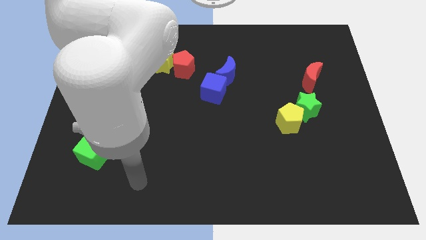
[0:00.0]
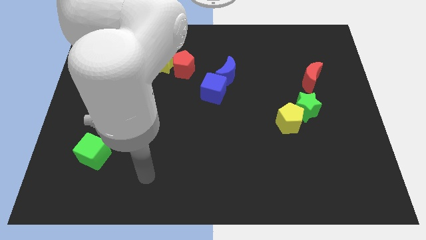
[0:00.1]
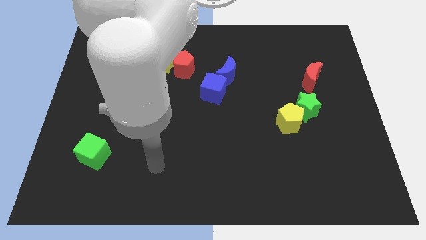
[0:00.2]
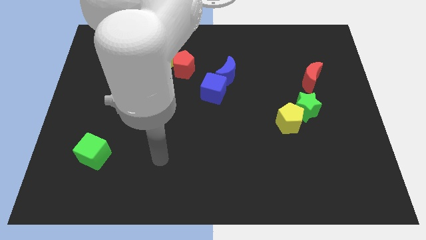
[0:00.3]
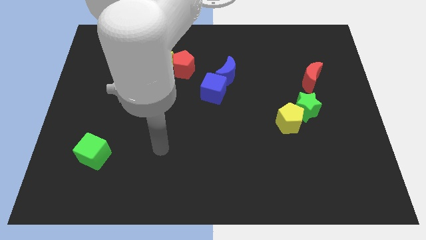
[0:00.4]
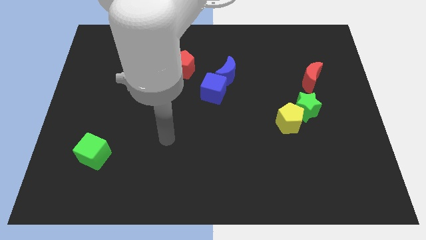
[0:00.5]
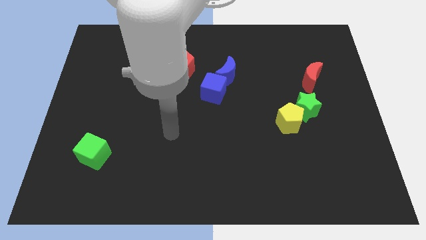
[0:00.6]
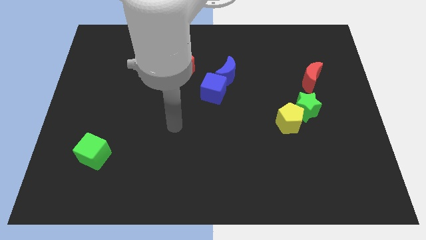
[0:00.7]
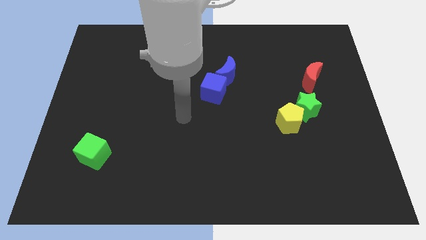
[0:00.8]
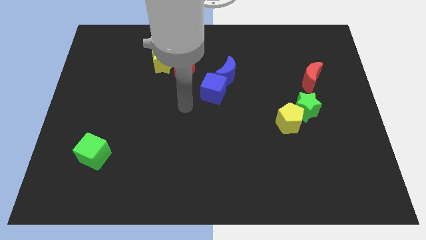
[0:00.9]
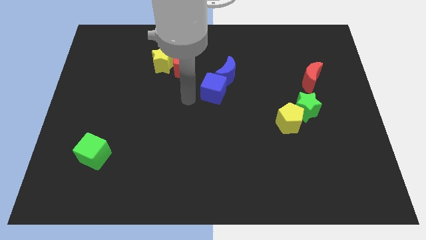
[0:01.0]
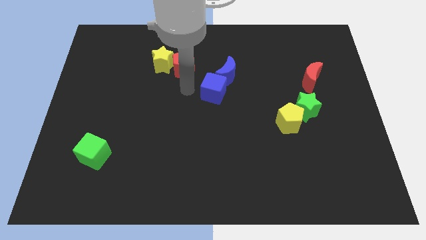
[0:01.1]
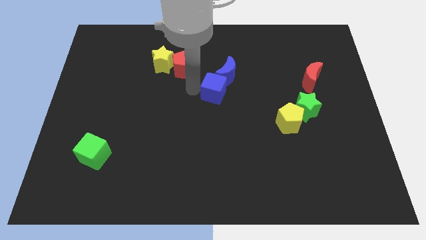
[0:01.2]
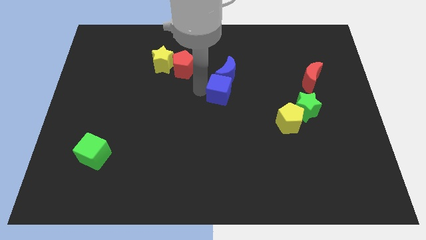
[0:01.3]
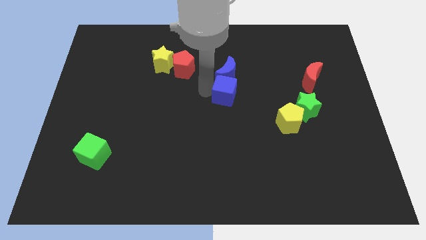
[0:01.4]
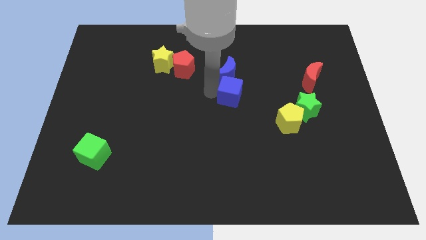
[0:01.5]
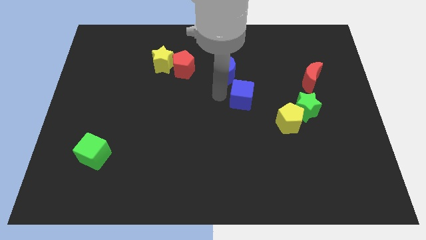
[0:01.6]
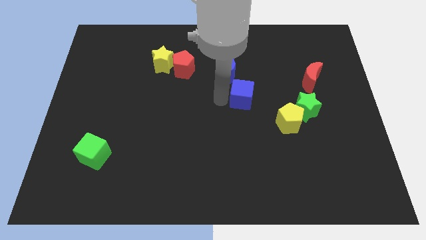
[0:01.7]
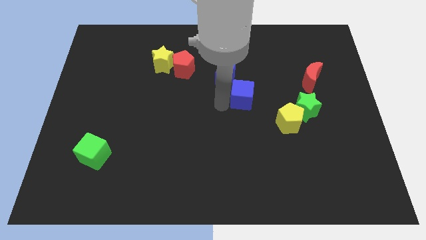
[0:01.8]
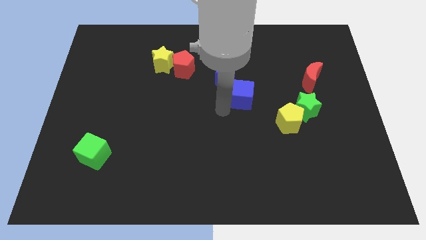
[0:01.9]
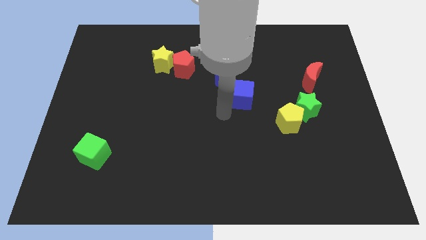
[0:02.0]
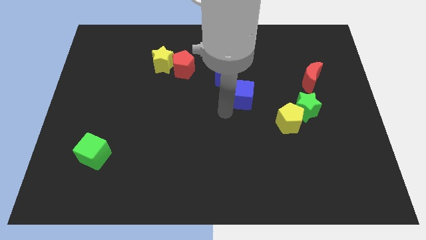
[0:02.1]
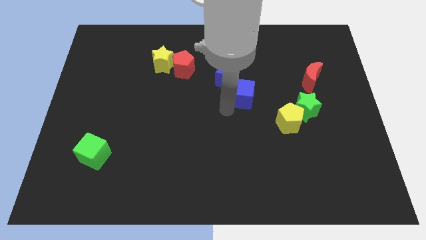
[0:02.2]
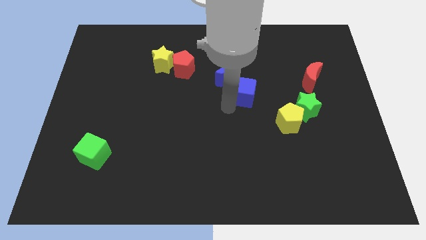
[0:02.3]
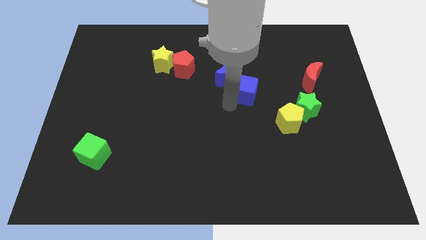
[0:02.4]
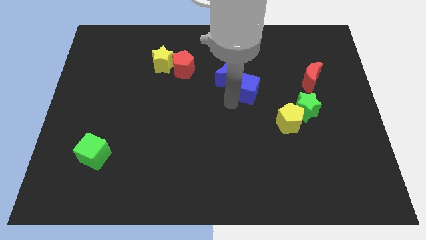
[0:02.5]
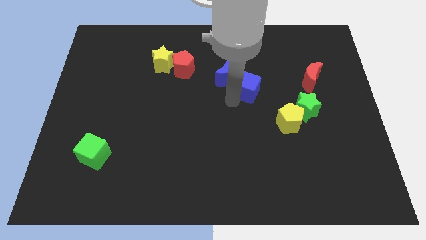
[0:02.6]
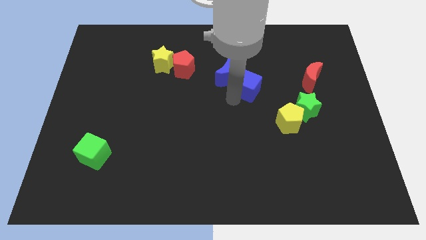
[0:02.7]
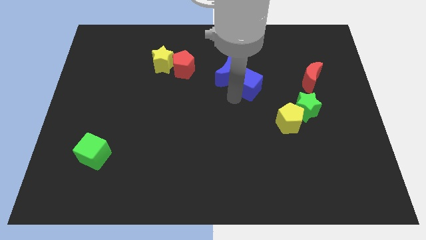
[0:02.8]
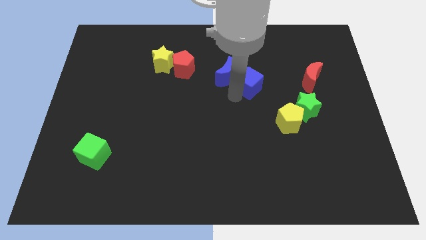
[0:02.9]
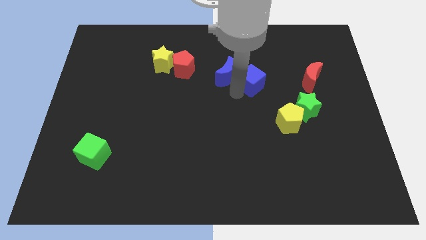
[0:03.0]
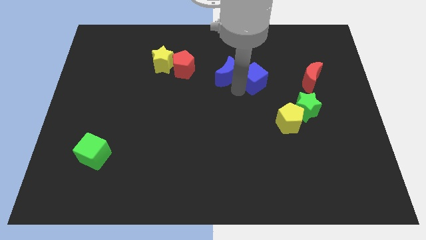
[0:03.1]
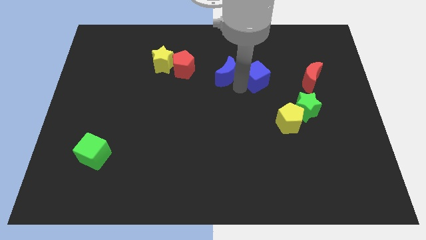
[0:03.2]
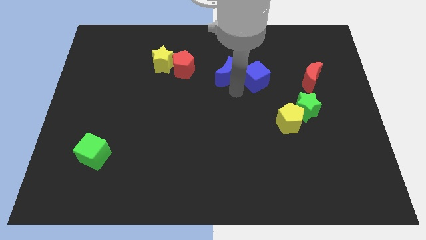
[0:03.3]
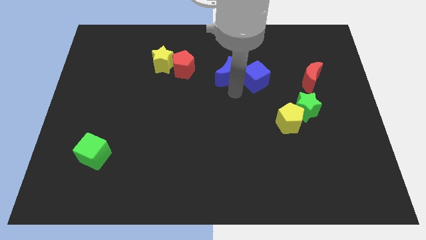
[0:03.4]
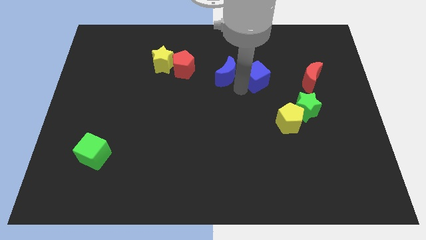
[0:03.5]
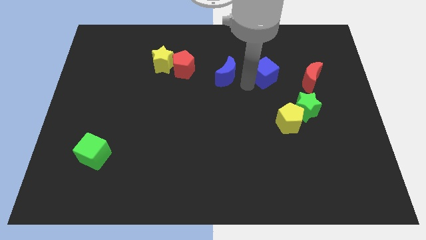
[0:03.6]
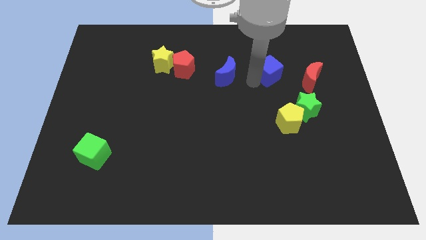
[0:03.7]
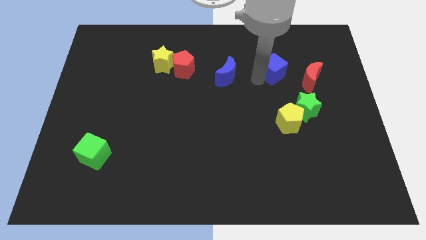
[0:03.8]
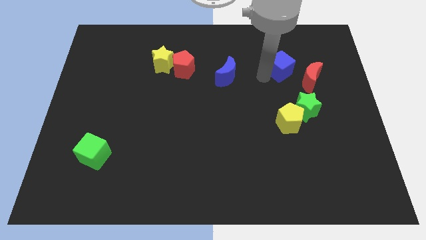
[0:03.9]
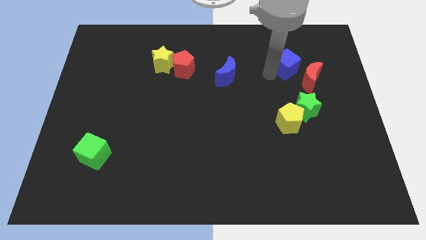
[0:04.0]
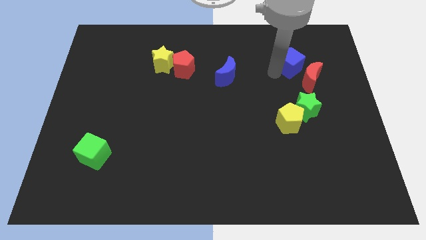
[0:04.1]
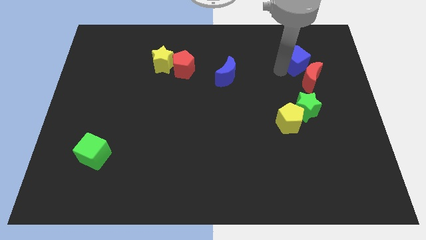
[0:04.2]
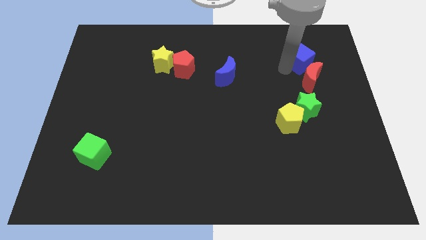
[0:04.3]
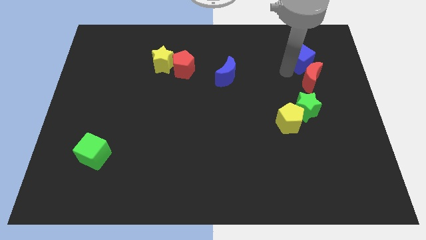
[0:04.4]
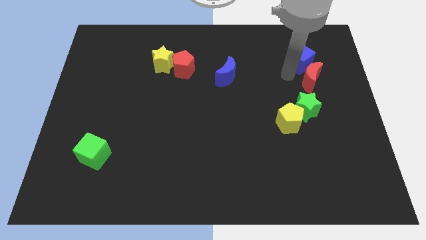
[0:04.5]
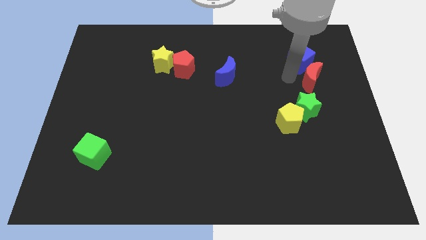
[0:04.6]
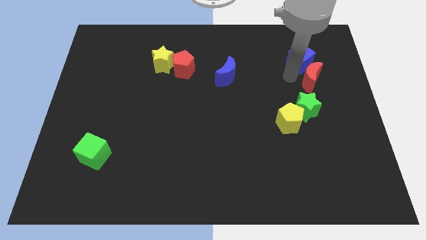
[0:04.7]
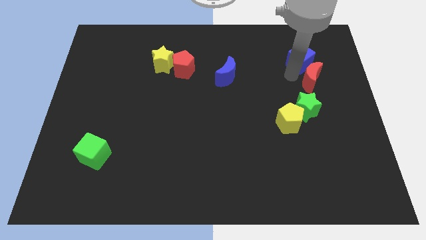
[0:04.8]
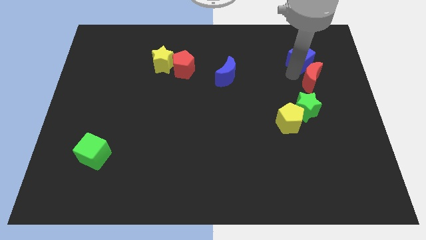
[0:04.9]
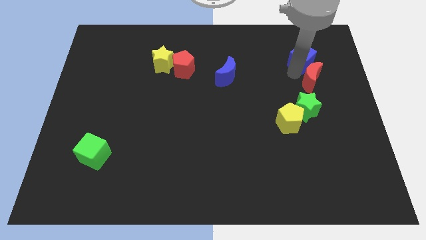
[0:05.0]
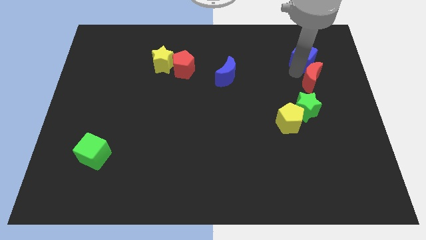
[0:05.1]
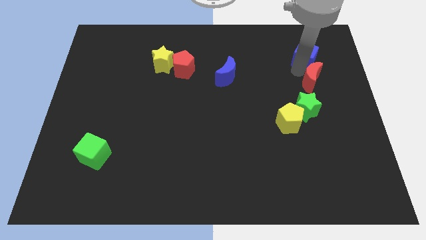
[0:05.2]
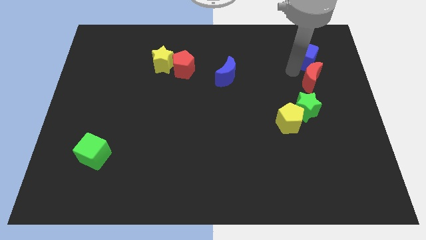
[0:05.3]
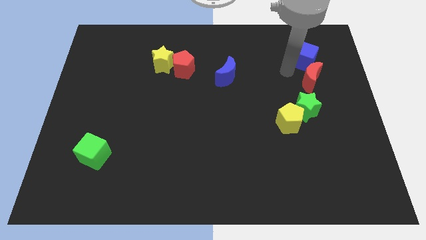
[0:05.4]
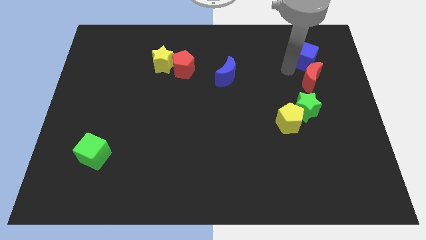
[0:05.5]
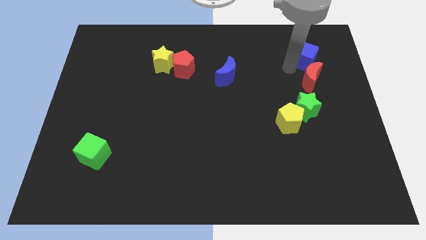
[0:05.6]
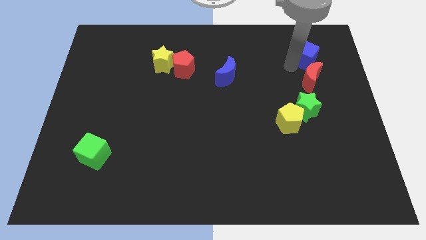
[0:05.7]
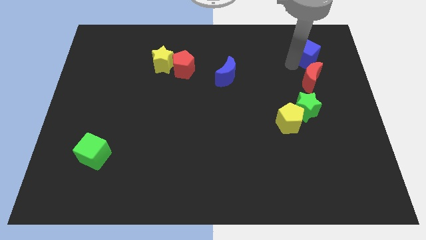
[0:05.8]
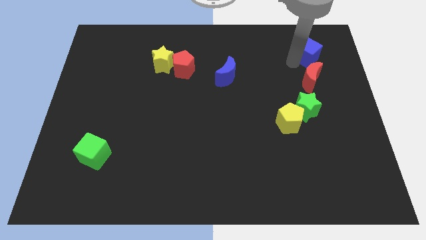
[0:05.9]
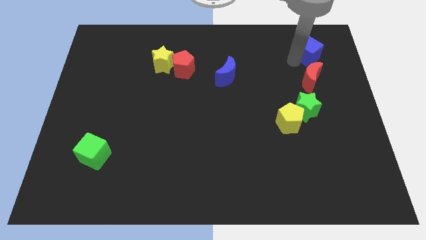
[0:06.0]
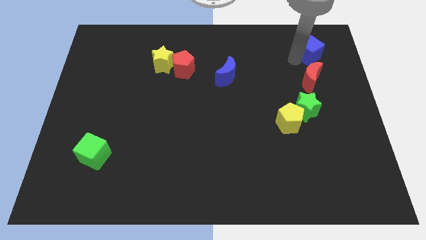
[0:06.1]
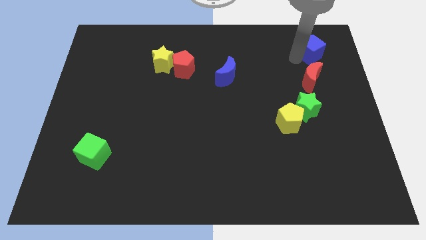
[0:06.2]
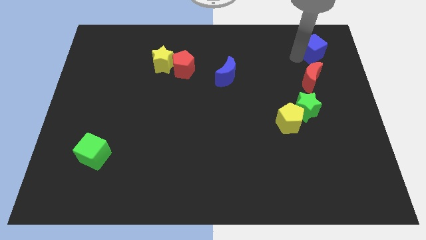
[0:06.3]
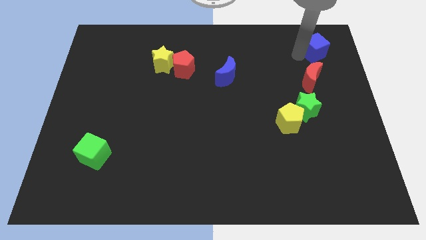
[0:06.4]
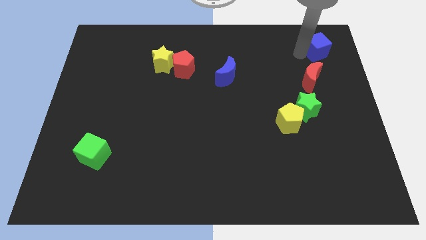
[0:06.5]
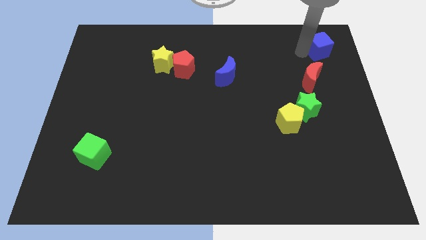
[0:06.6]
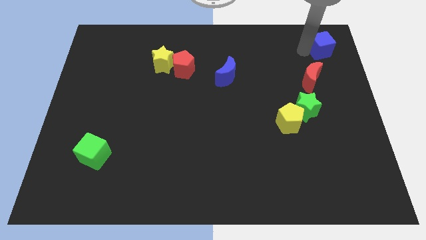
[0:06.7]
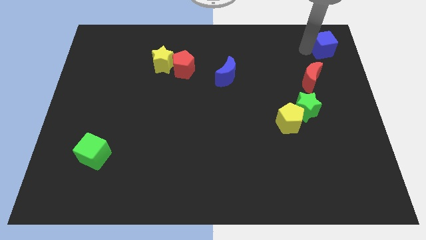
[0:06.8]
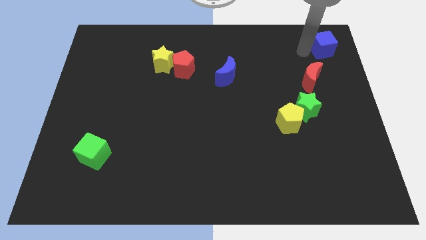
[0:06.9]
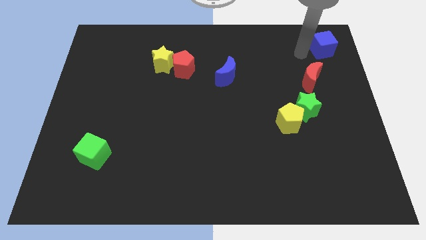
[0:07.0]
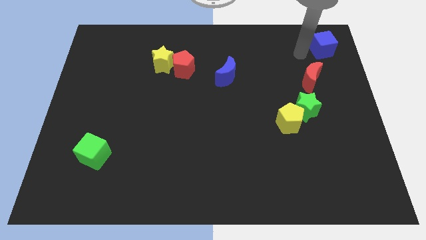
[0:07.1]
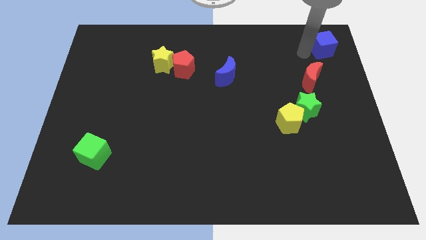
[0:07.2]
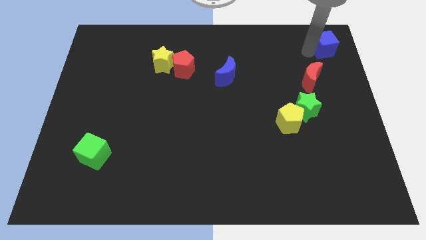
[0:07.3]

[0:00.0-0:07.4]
put the blue cube to the top right of the board
